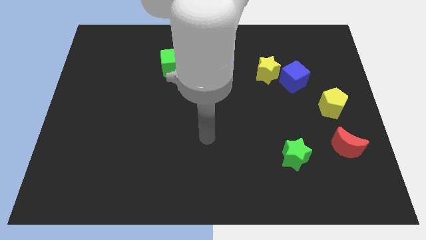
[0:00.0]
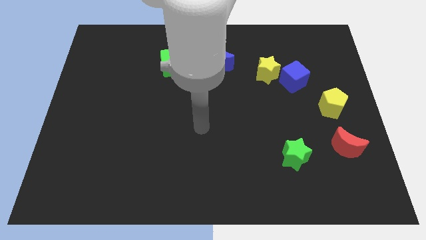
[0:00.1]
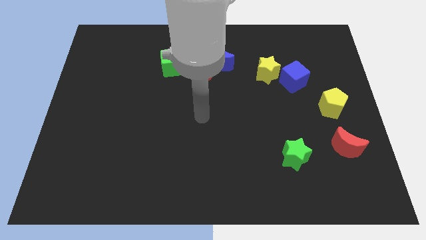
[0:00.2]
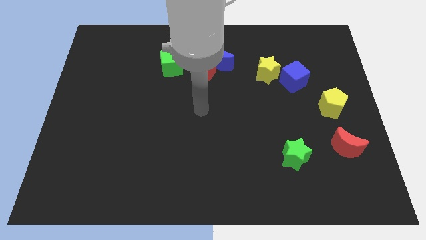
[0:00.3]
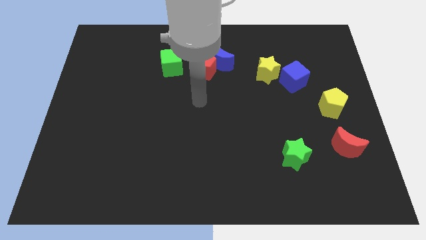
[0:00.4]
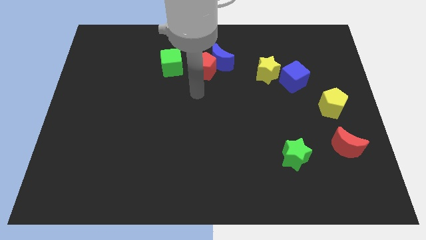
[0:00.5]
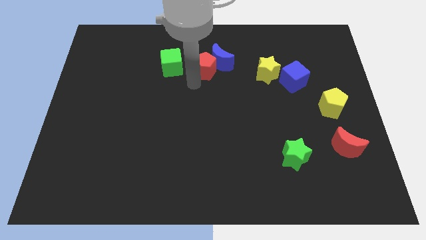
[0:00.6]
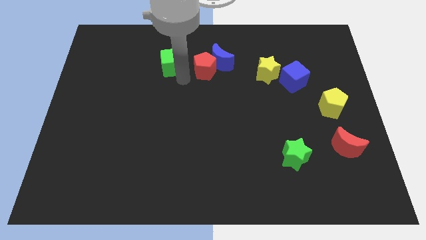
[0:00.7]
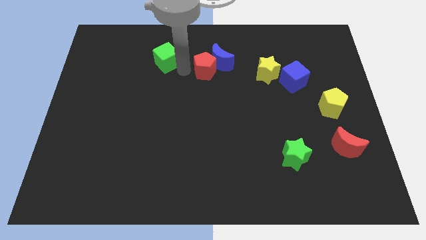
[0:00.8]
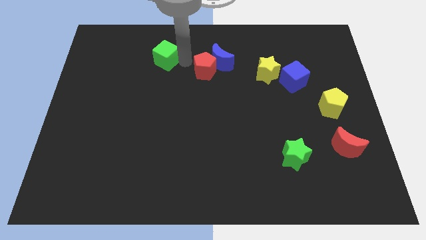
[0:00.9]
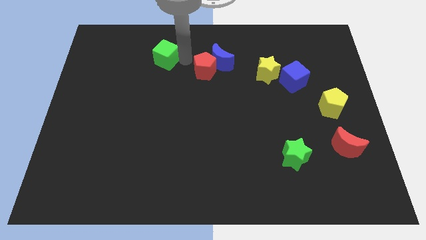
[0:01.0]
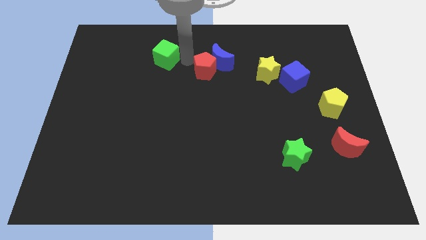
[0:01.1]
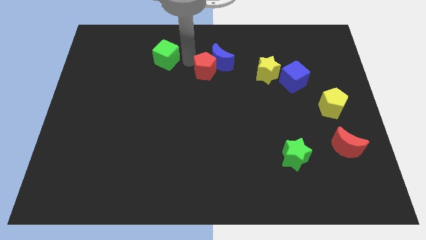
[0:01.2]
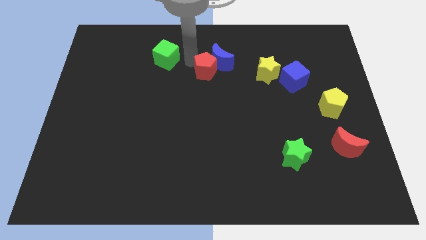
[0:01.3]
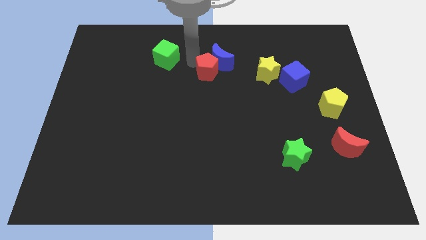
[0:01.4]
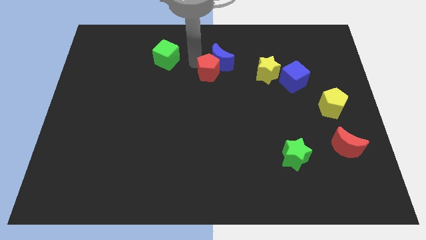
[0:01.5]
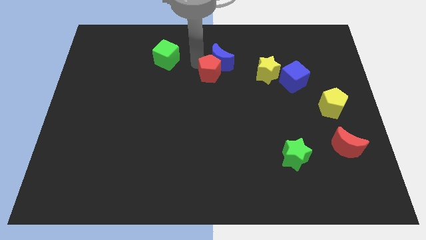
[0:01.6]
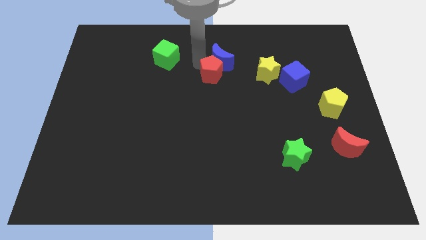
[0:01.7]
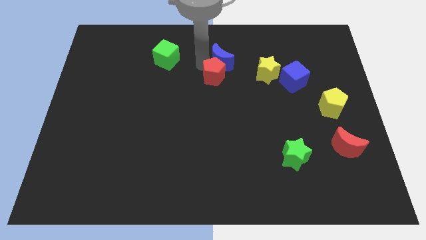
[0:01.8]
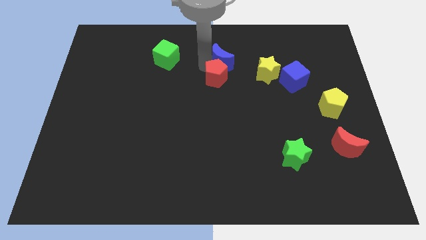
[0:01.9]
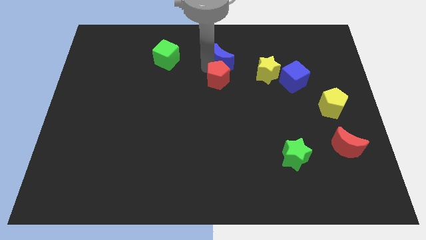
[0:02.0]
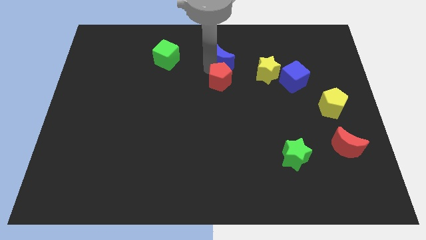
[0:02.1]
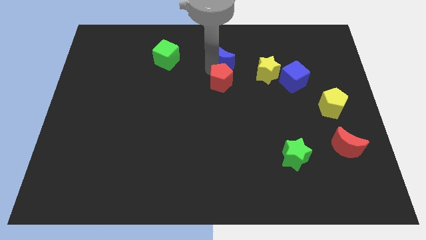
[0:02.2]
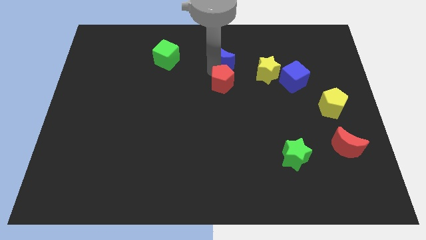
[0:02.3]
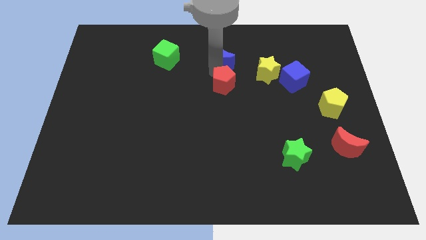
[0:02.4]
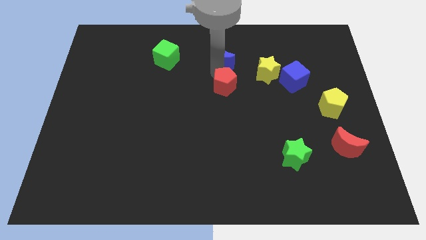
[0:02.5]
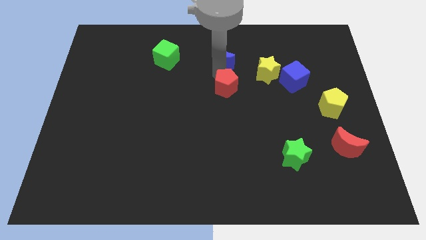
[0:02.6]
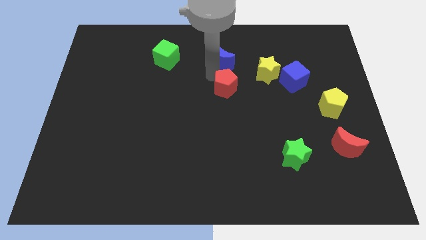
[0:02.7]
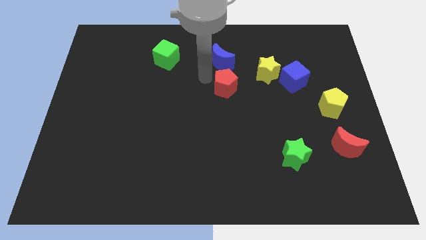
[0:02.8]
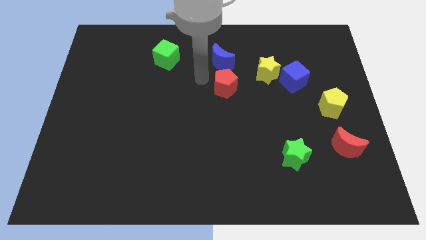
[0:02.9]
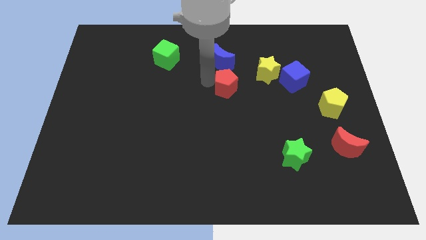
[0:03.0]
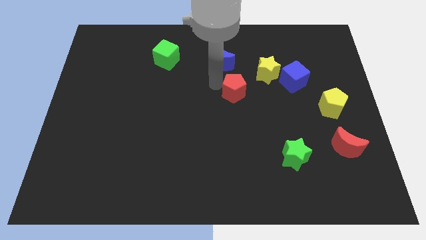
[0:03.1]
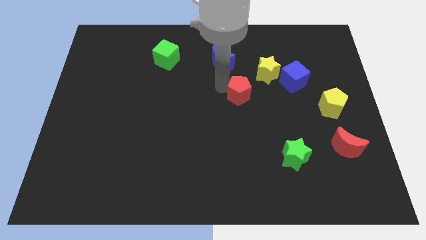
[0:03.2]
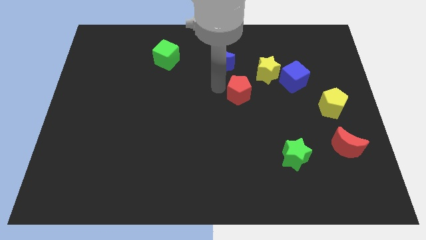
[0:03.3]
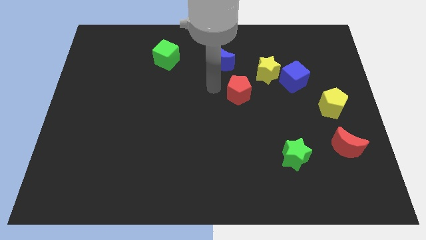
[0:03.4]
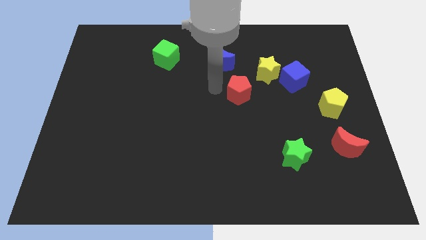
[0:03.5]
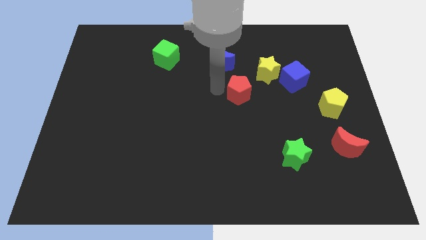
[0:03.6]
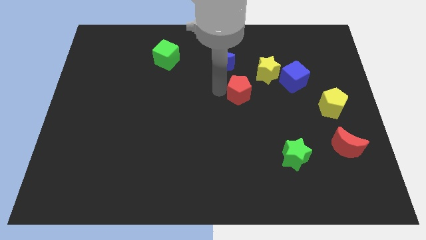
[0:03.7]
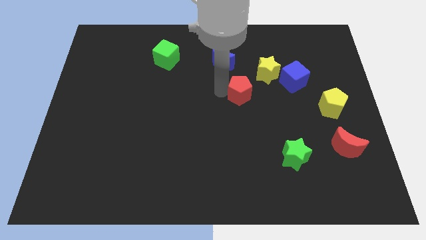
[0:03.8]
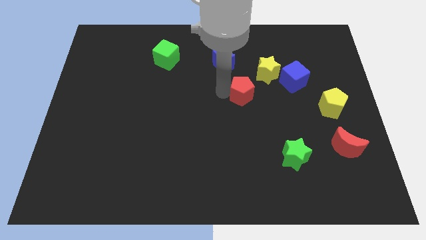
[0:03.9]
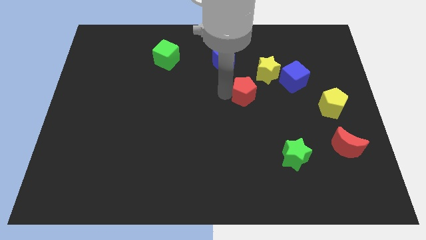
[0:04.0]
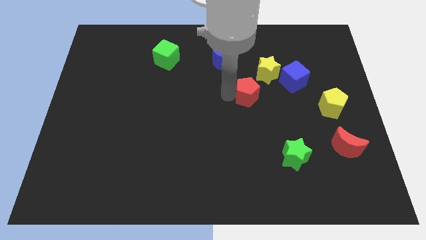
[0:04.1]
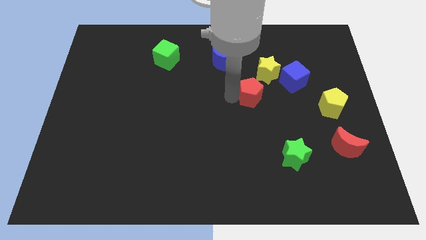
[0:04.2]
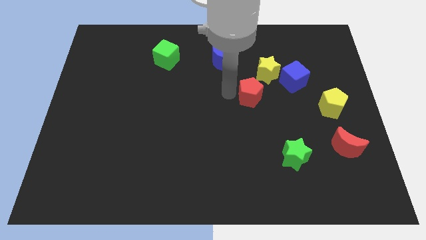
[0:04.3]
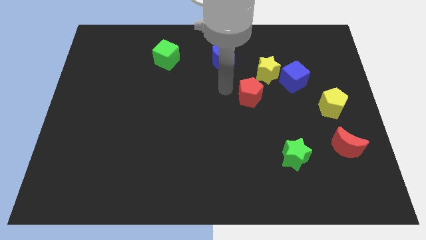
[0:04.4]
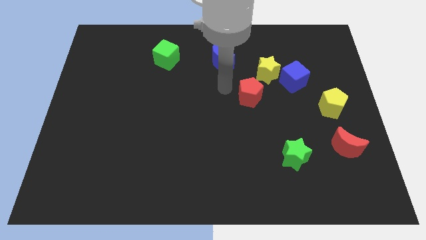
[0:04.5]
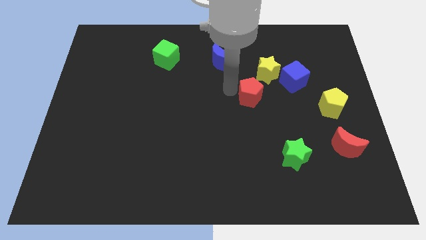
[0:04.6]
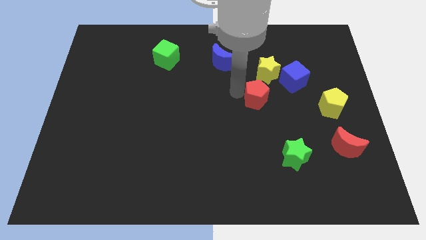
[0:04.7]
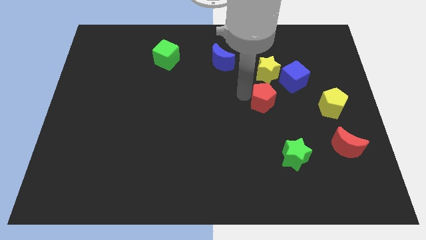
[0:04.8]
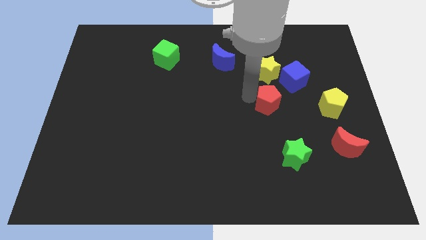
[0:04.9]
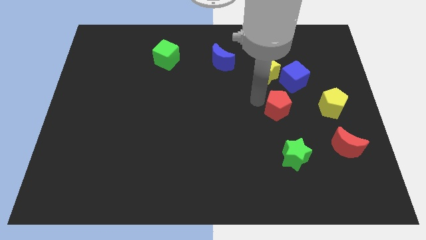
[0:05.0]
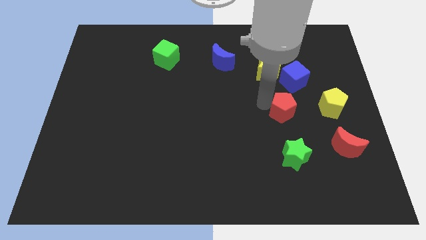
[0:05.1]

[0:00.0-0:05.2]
move the red pentagon below the blue cube

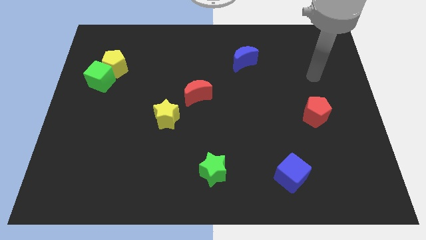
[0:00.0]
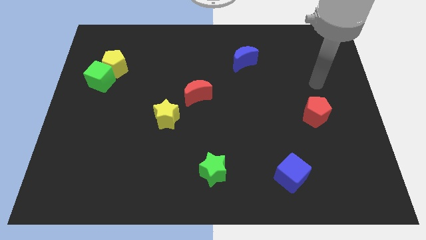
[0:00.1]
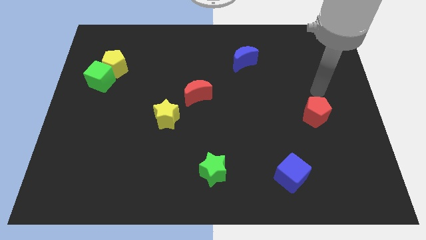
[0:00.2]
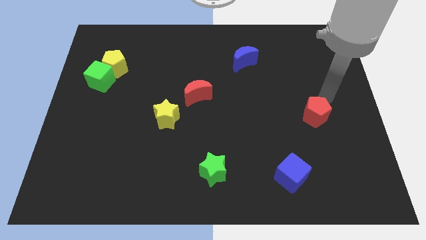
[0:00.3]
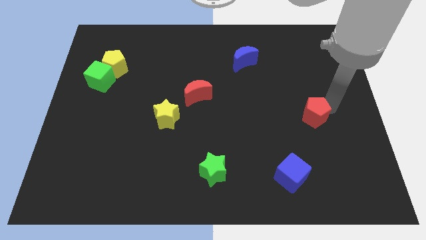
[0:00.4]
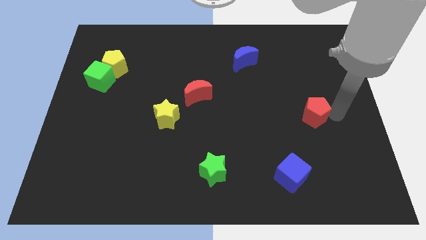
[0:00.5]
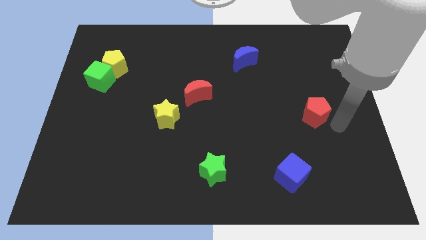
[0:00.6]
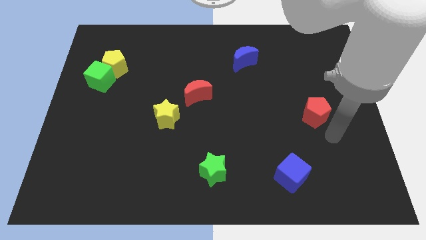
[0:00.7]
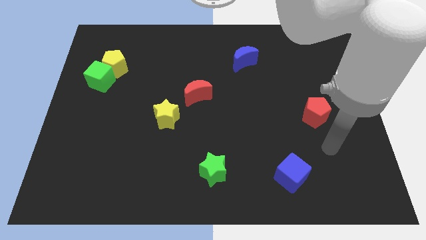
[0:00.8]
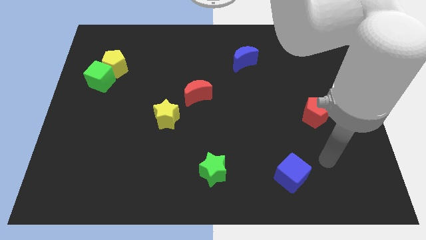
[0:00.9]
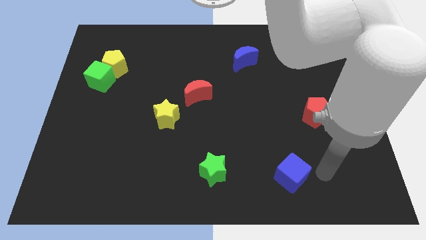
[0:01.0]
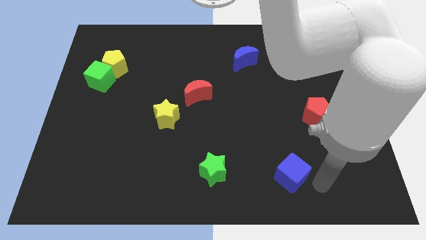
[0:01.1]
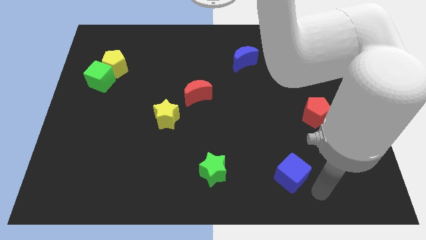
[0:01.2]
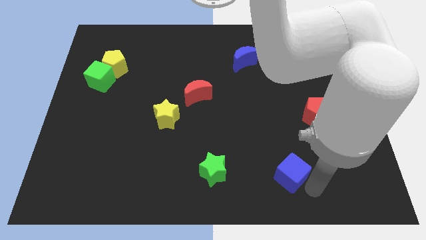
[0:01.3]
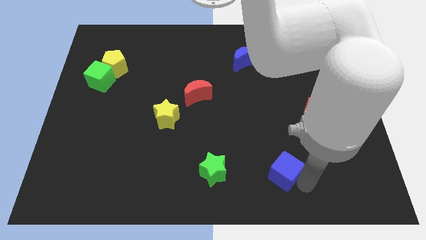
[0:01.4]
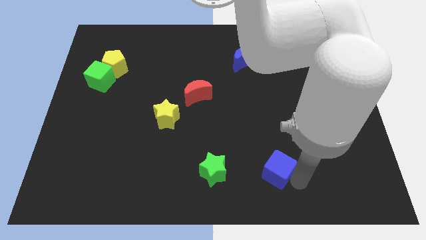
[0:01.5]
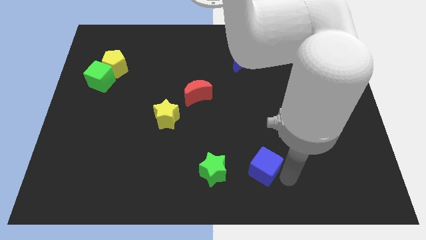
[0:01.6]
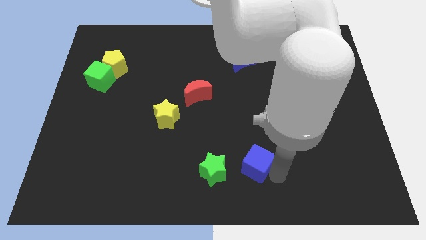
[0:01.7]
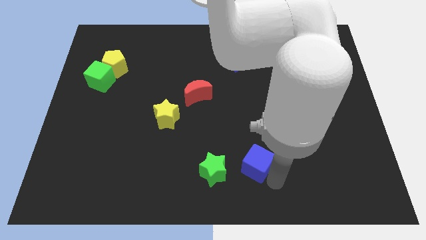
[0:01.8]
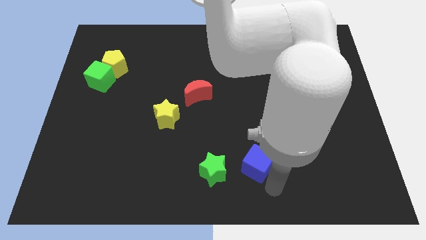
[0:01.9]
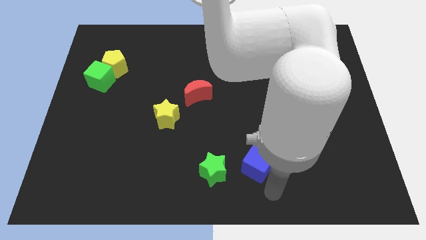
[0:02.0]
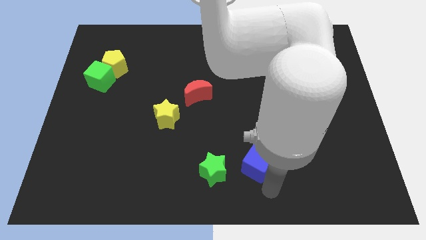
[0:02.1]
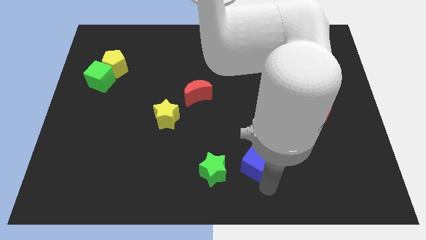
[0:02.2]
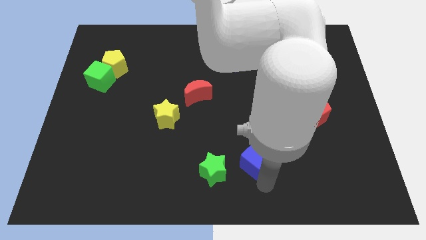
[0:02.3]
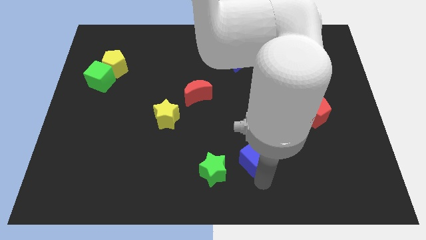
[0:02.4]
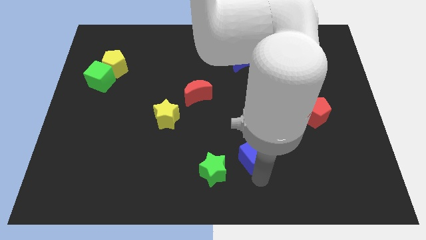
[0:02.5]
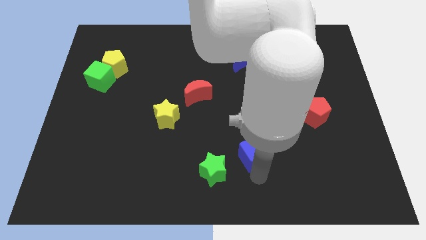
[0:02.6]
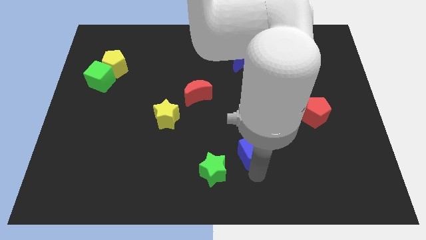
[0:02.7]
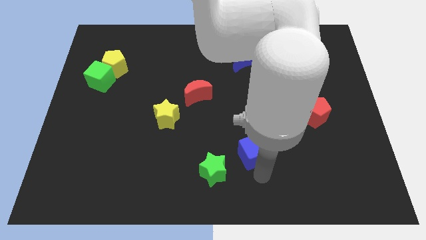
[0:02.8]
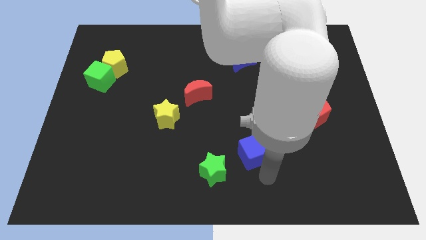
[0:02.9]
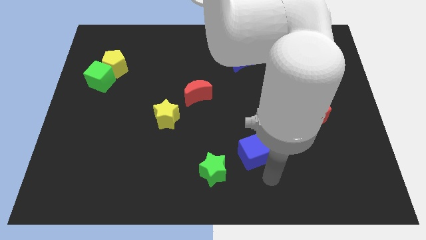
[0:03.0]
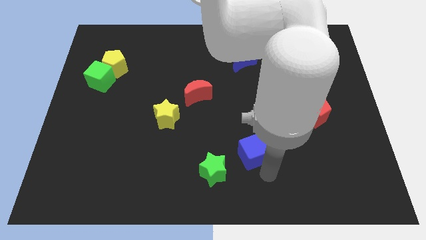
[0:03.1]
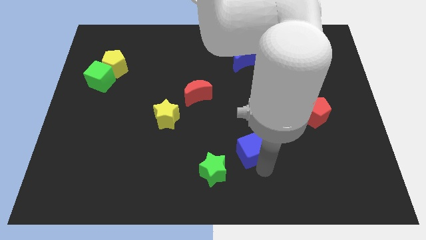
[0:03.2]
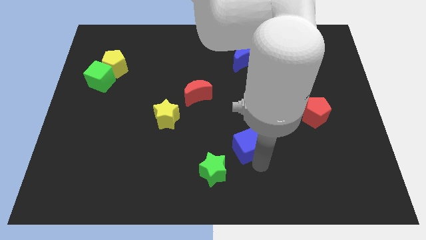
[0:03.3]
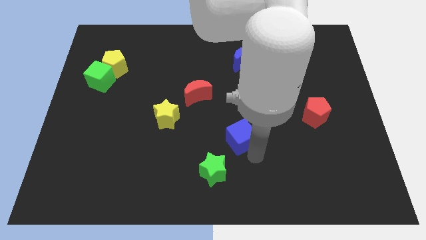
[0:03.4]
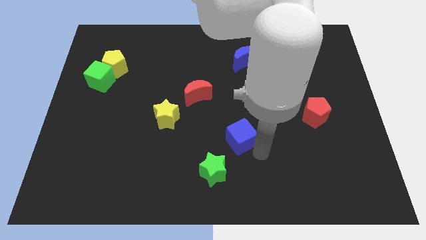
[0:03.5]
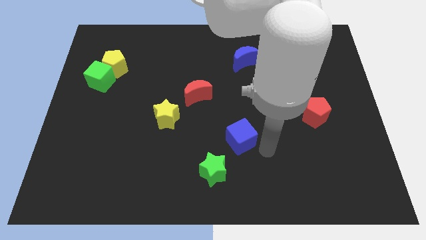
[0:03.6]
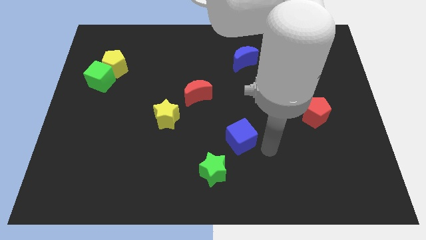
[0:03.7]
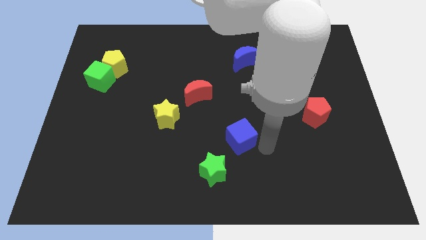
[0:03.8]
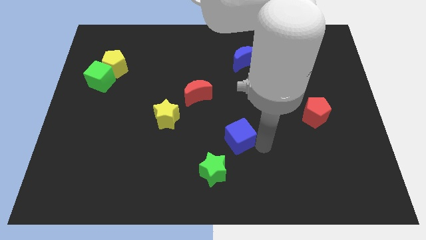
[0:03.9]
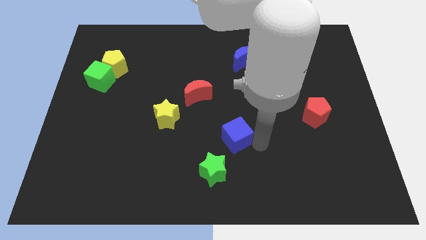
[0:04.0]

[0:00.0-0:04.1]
slide the blue cube to the top side of the green star
